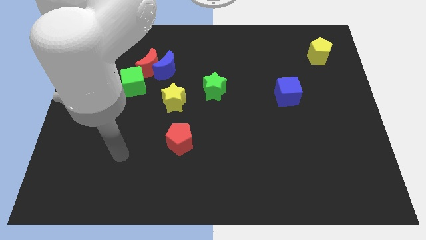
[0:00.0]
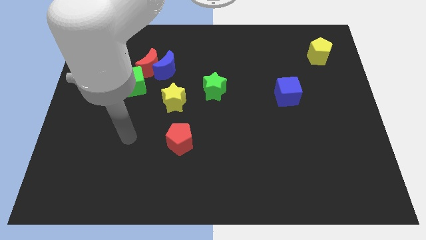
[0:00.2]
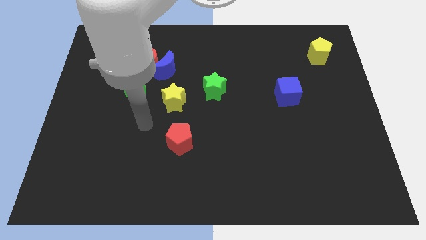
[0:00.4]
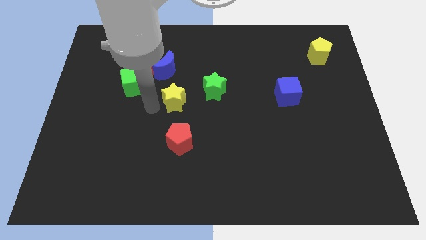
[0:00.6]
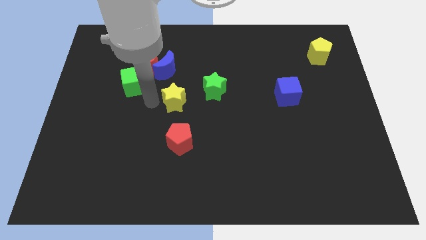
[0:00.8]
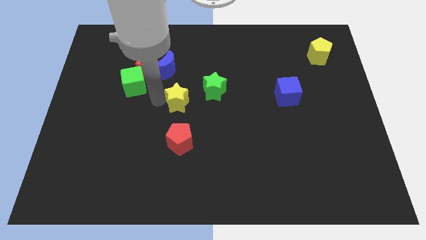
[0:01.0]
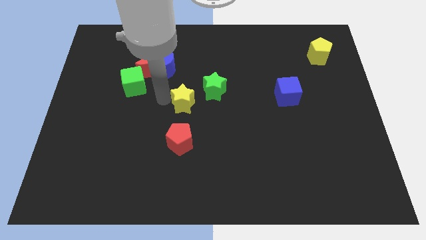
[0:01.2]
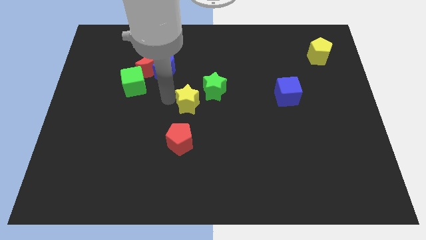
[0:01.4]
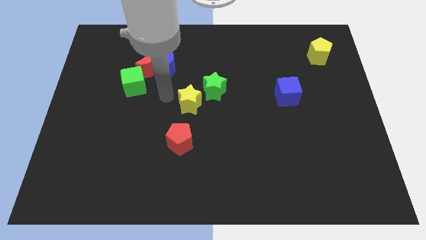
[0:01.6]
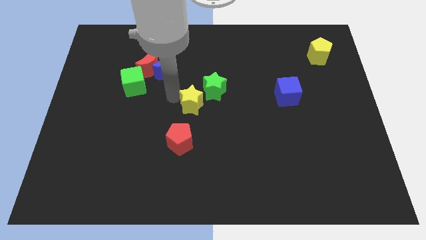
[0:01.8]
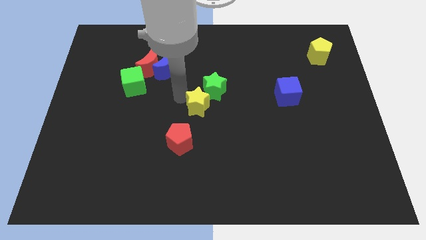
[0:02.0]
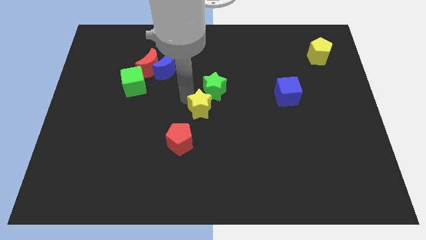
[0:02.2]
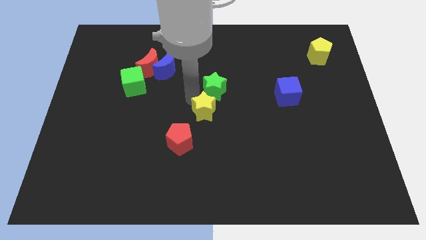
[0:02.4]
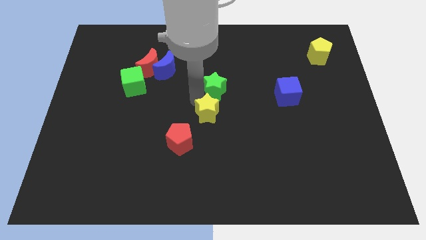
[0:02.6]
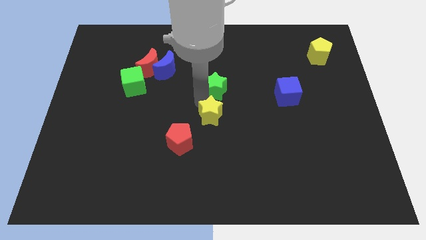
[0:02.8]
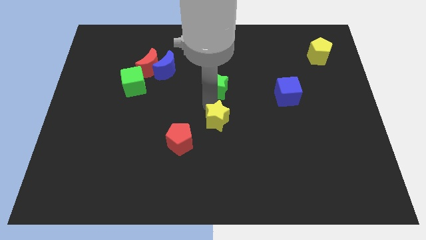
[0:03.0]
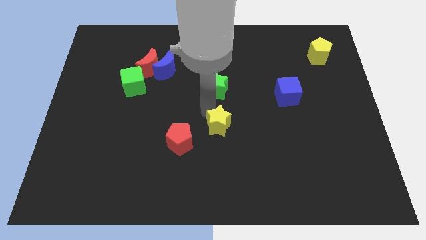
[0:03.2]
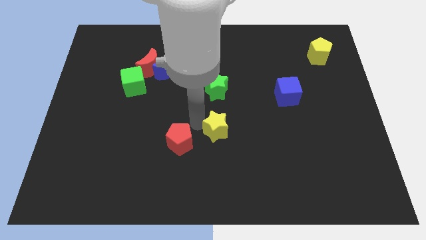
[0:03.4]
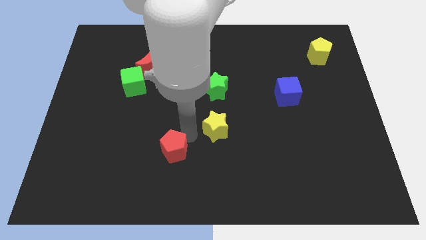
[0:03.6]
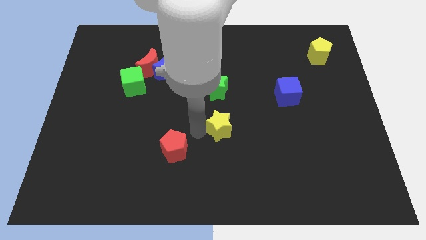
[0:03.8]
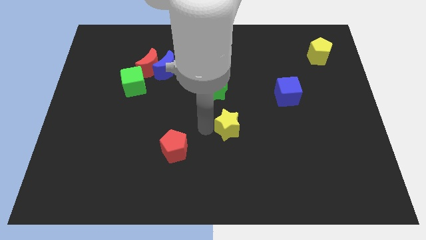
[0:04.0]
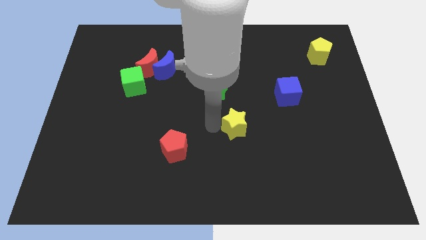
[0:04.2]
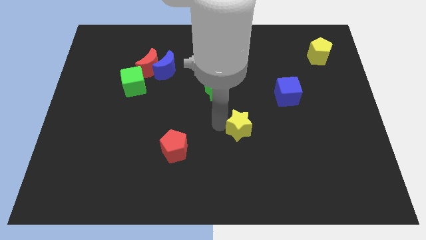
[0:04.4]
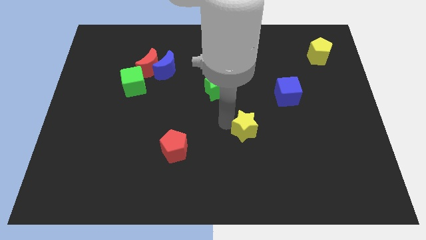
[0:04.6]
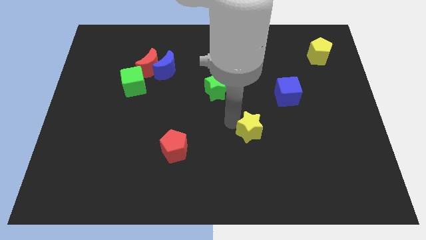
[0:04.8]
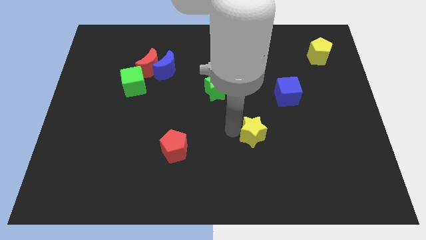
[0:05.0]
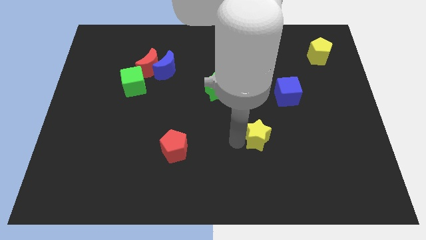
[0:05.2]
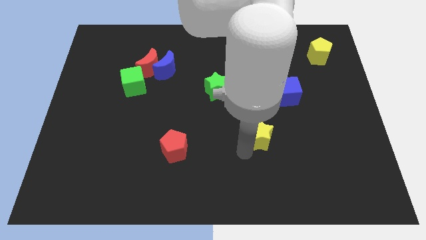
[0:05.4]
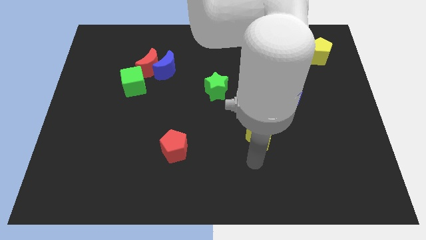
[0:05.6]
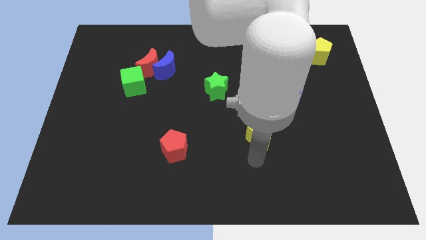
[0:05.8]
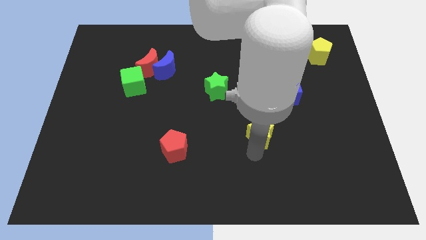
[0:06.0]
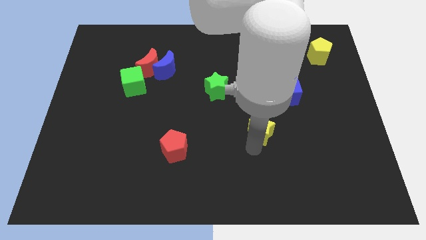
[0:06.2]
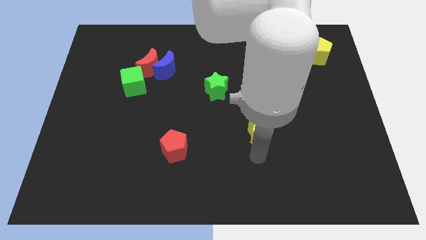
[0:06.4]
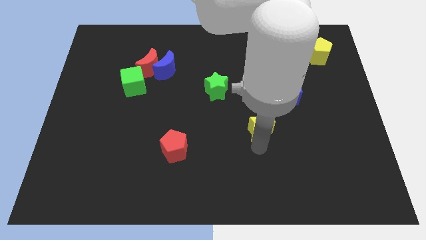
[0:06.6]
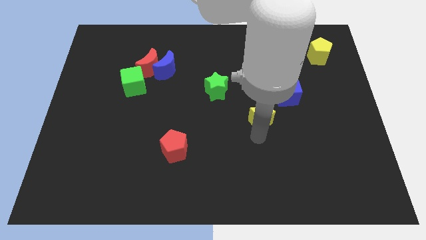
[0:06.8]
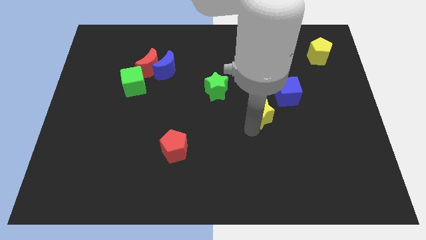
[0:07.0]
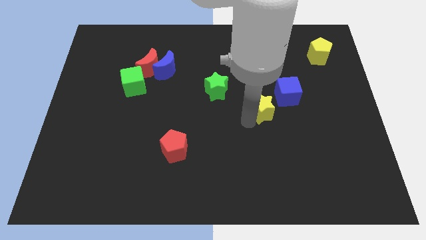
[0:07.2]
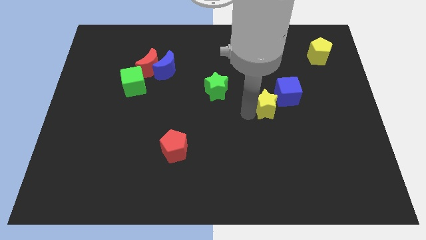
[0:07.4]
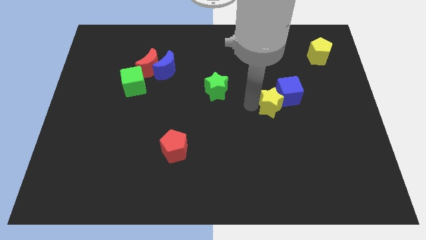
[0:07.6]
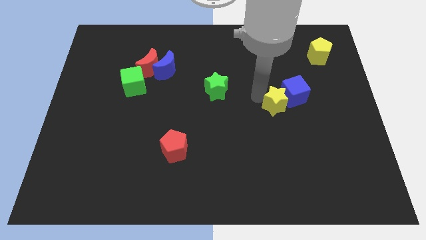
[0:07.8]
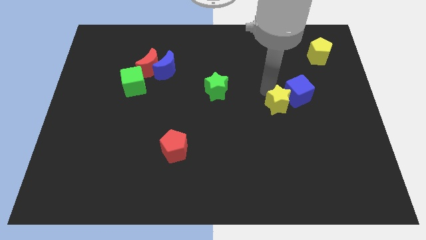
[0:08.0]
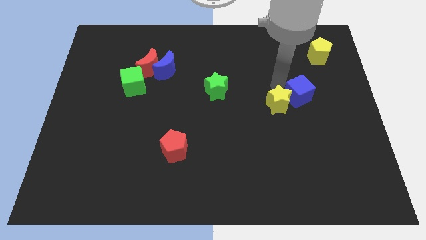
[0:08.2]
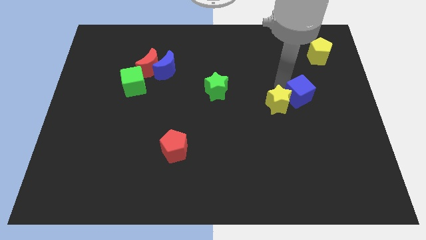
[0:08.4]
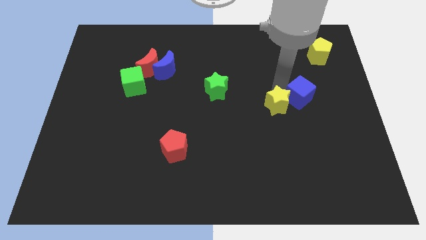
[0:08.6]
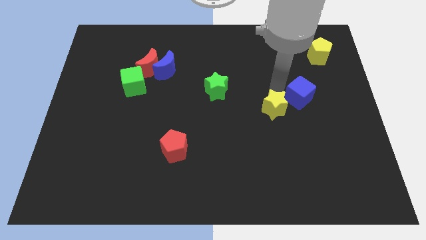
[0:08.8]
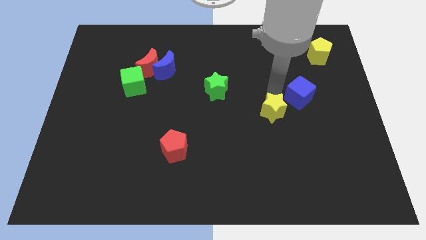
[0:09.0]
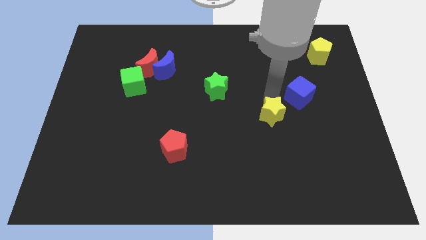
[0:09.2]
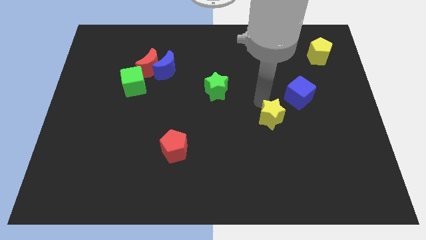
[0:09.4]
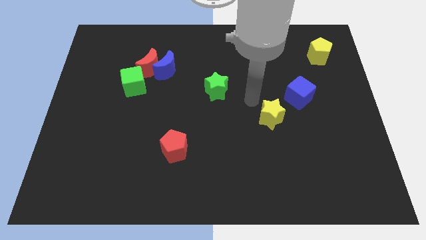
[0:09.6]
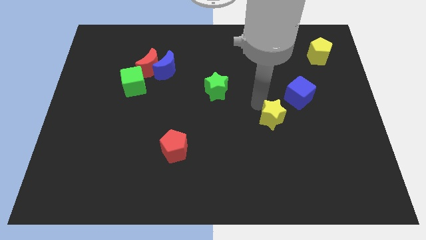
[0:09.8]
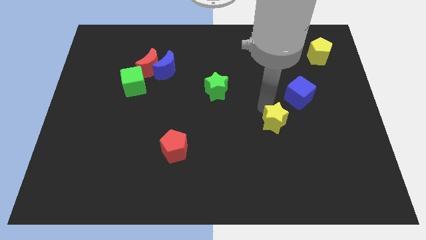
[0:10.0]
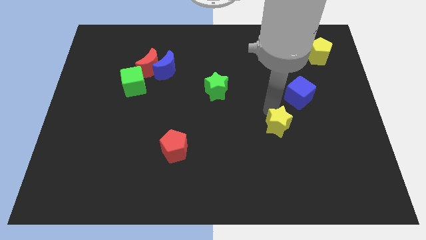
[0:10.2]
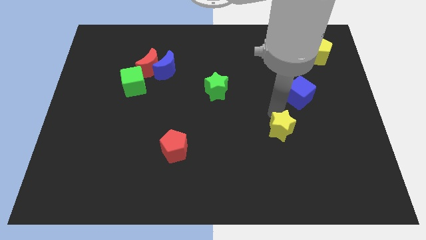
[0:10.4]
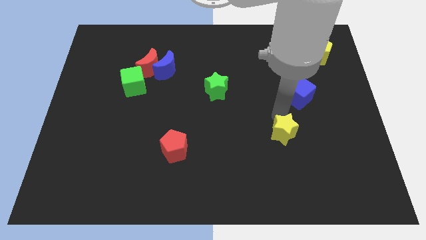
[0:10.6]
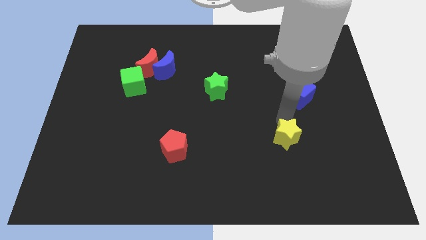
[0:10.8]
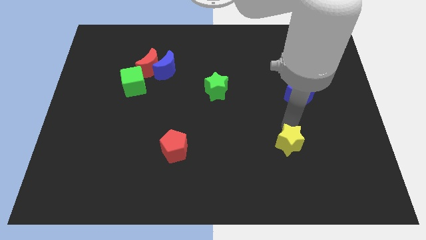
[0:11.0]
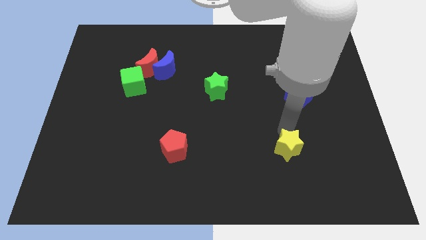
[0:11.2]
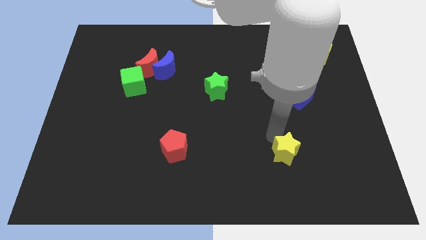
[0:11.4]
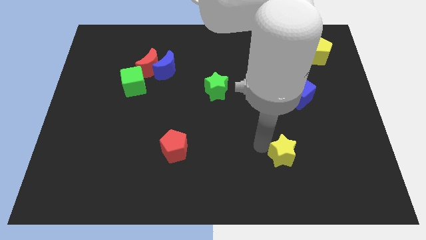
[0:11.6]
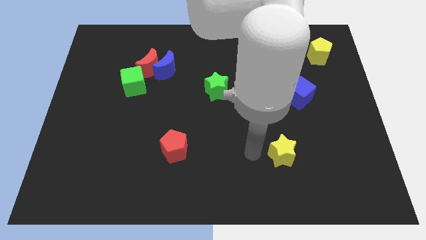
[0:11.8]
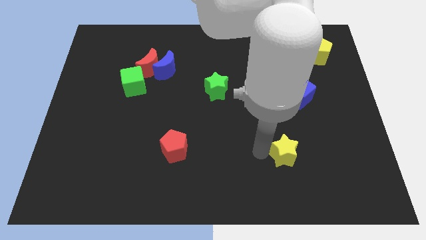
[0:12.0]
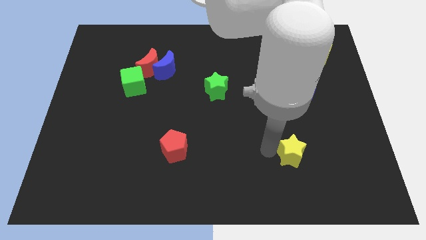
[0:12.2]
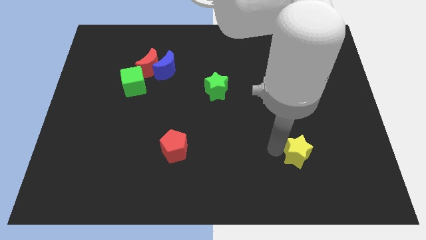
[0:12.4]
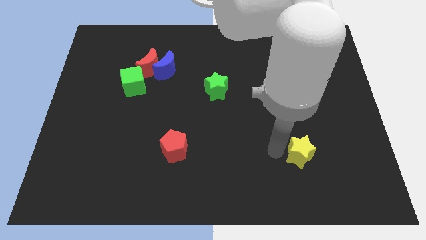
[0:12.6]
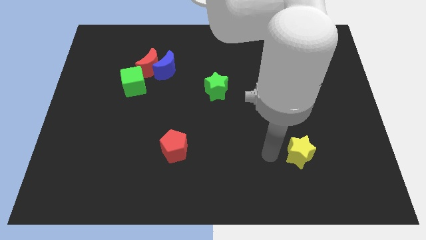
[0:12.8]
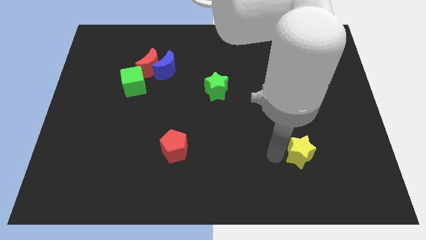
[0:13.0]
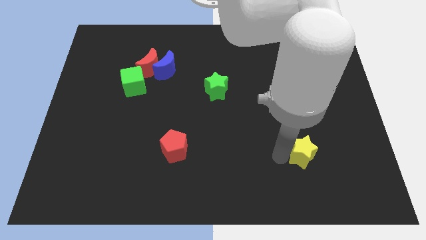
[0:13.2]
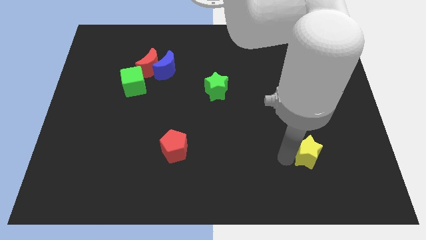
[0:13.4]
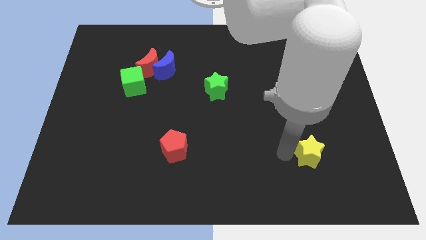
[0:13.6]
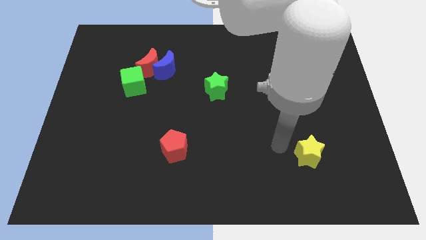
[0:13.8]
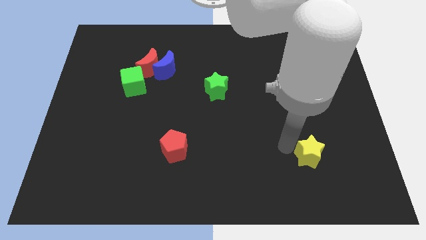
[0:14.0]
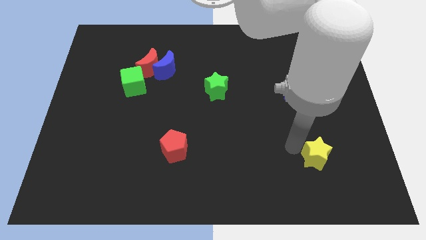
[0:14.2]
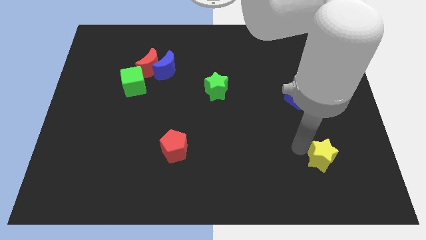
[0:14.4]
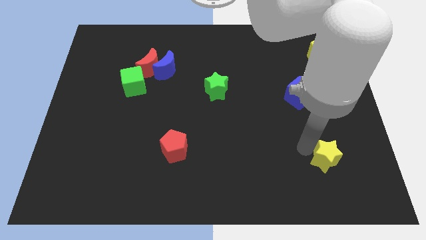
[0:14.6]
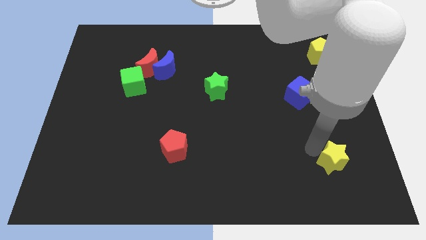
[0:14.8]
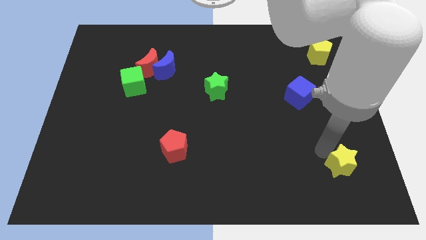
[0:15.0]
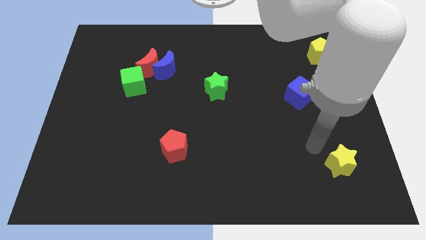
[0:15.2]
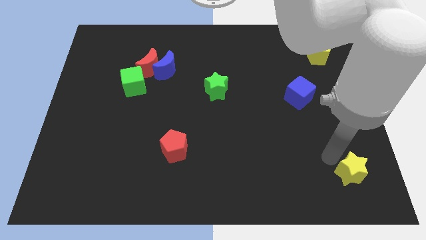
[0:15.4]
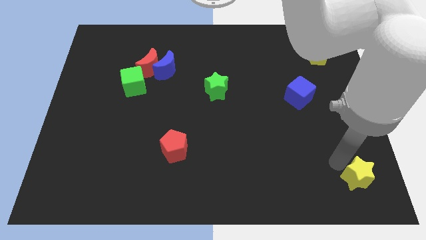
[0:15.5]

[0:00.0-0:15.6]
put the yellow star to the lower right corner
